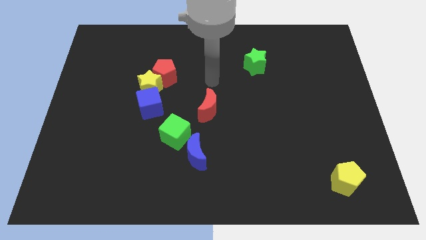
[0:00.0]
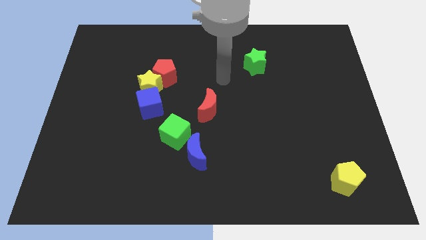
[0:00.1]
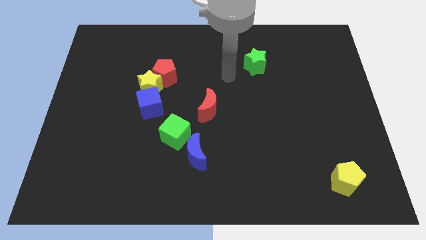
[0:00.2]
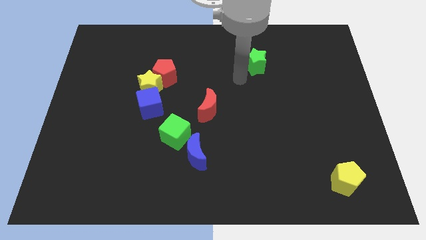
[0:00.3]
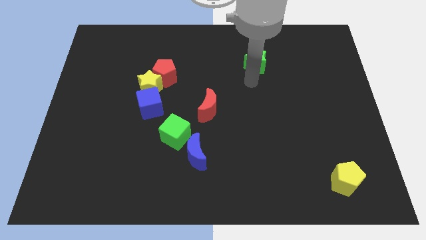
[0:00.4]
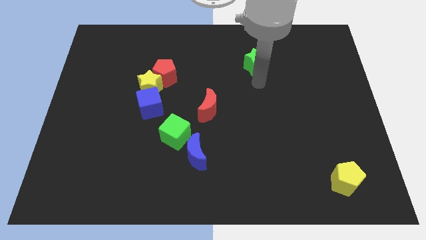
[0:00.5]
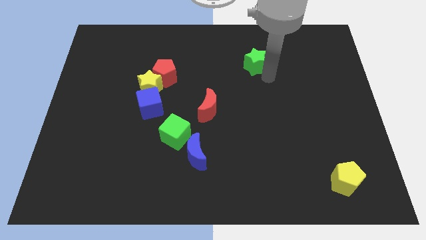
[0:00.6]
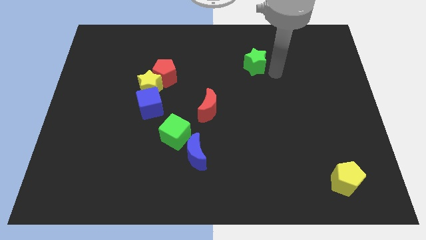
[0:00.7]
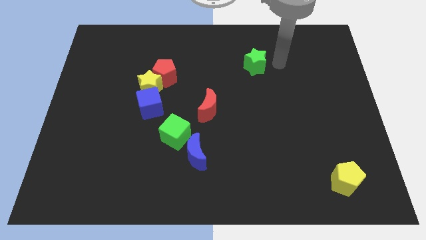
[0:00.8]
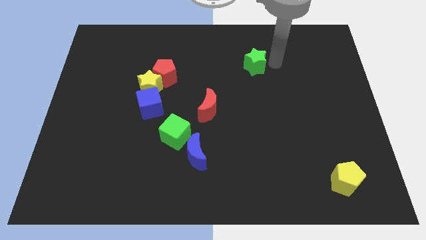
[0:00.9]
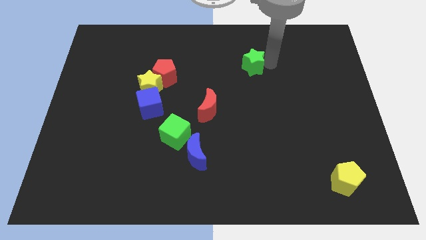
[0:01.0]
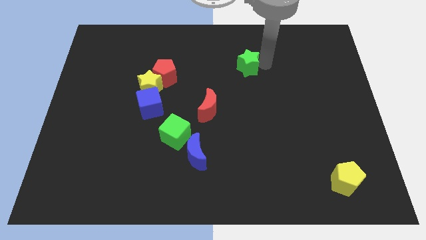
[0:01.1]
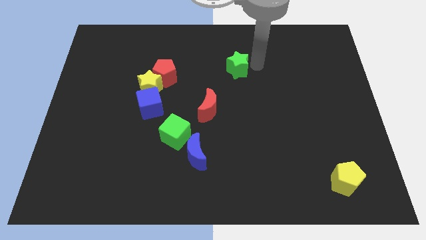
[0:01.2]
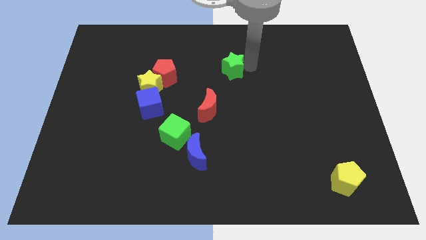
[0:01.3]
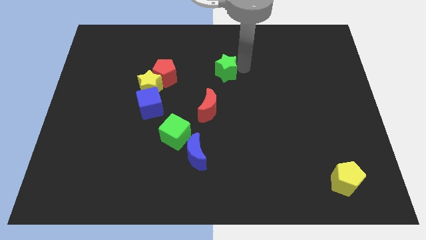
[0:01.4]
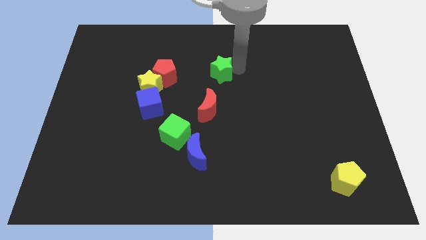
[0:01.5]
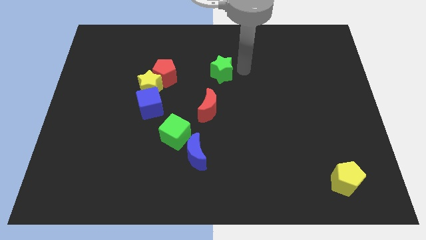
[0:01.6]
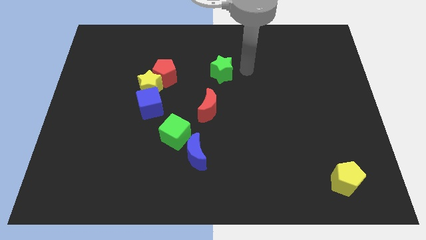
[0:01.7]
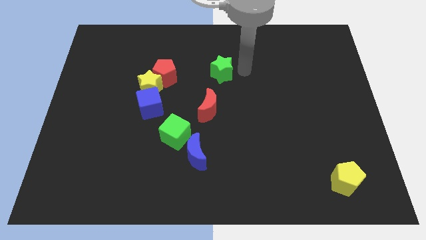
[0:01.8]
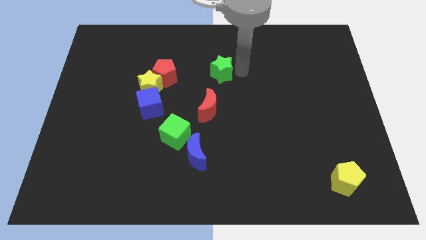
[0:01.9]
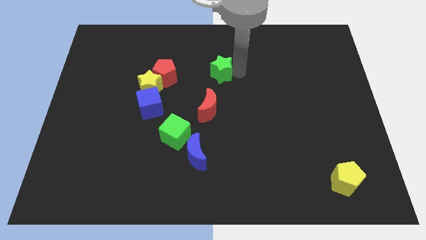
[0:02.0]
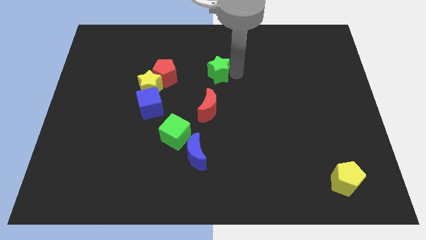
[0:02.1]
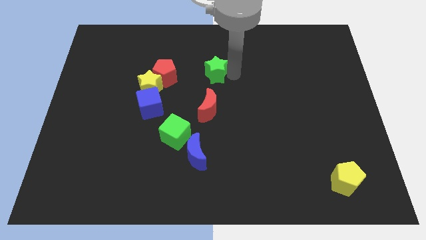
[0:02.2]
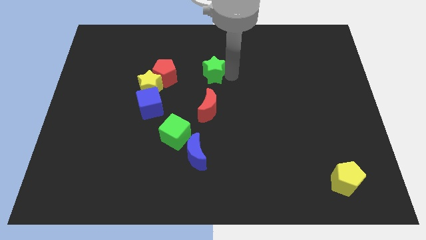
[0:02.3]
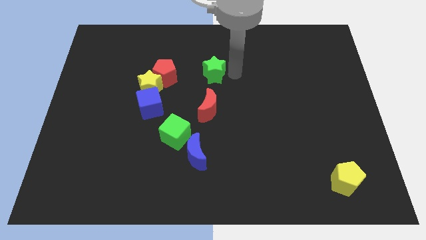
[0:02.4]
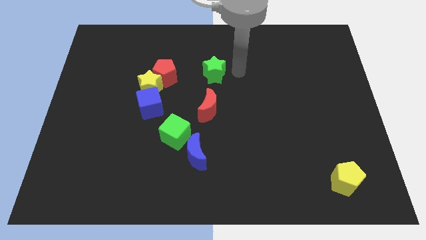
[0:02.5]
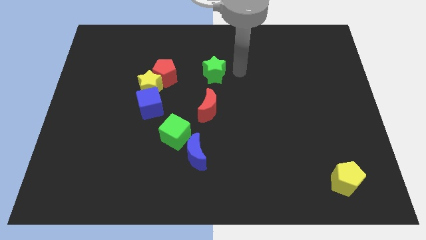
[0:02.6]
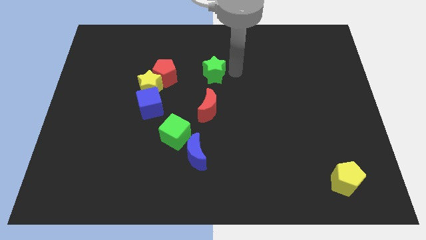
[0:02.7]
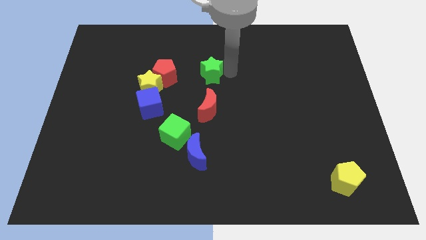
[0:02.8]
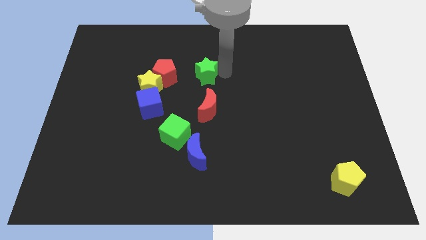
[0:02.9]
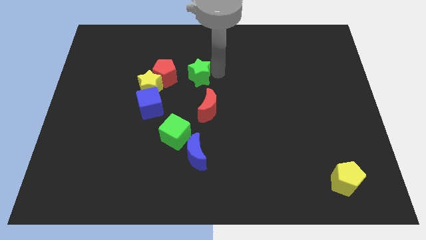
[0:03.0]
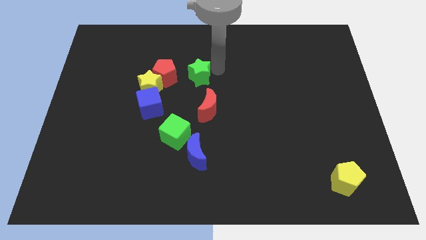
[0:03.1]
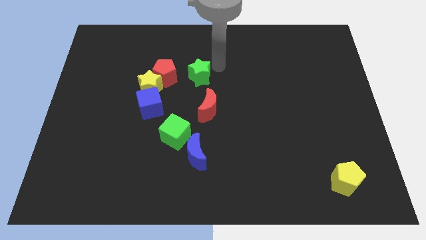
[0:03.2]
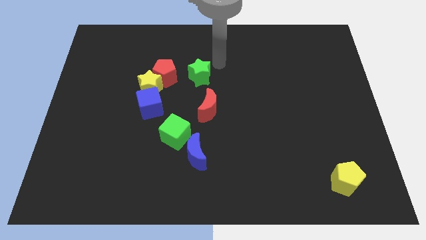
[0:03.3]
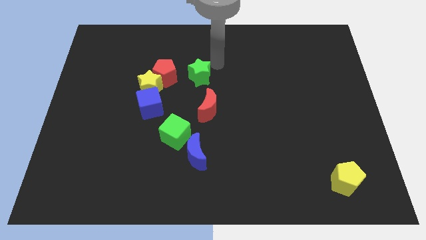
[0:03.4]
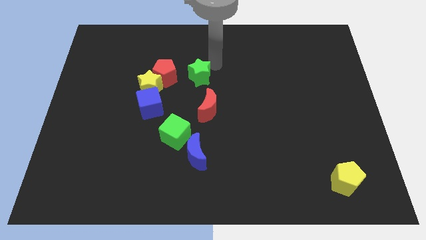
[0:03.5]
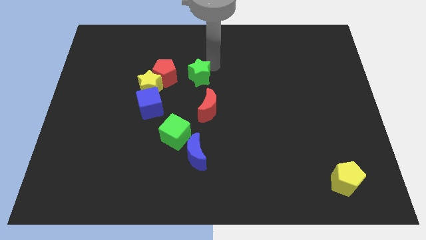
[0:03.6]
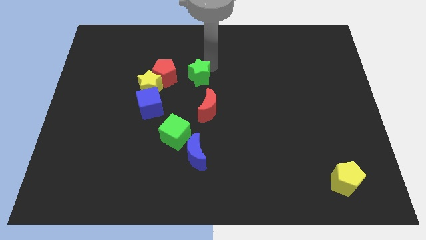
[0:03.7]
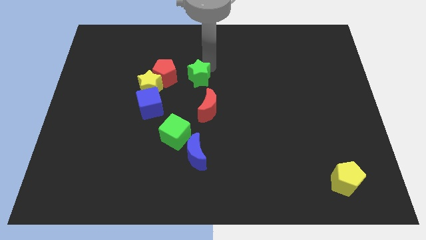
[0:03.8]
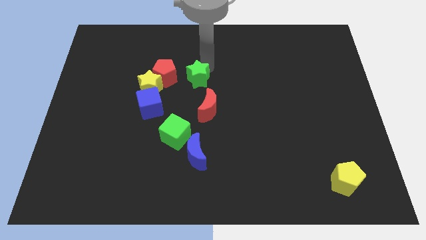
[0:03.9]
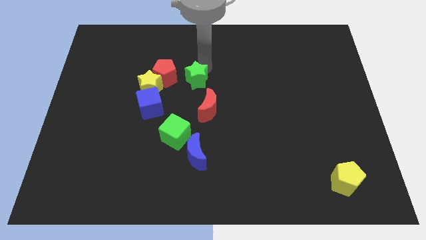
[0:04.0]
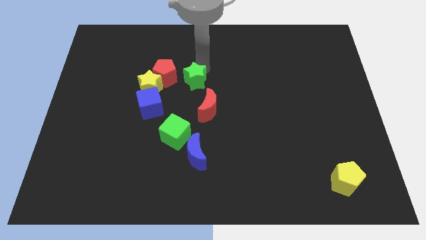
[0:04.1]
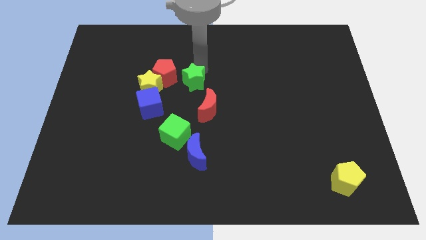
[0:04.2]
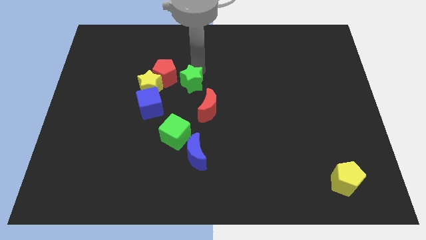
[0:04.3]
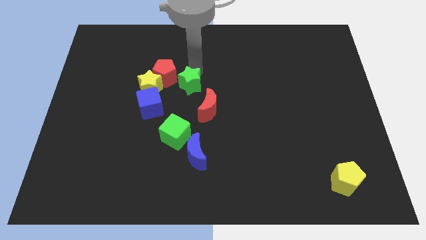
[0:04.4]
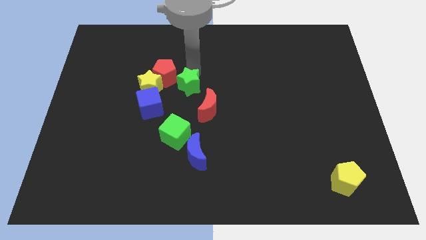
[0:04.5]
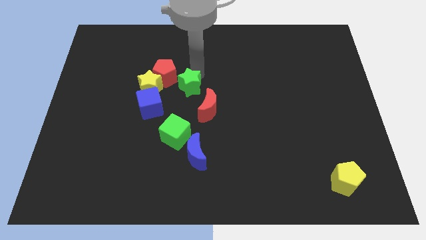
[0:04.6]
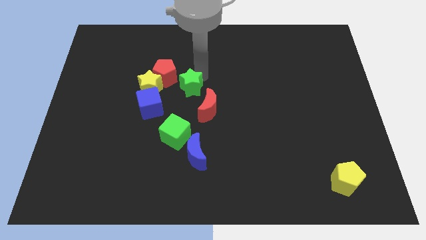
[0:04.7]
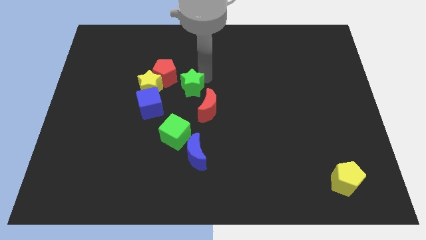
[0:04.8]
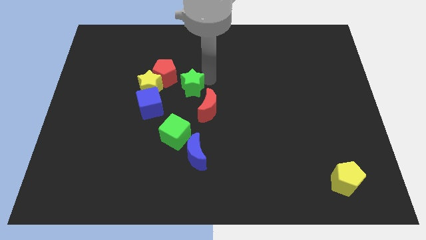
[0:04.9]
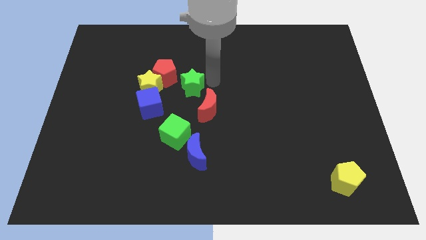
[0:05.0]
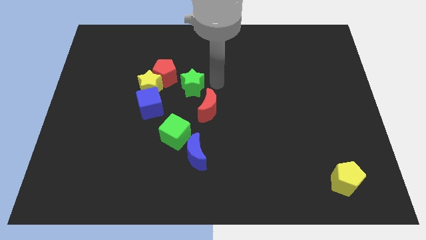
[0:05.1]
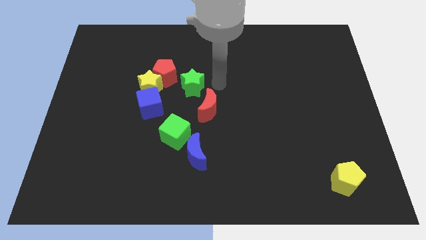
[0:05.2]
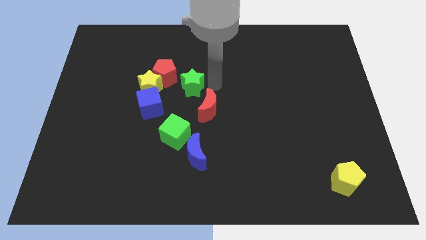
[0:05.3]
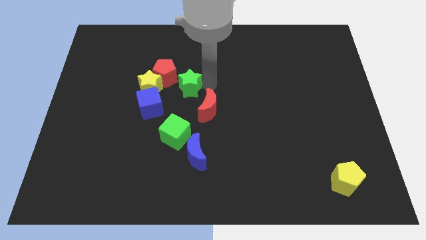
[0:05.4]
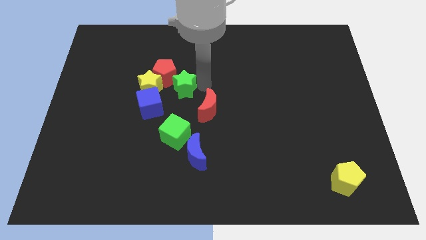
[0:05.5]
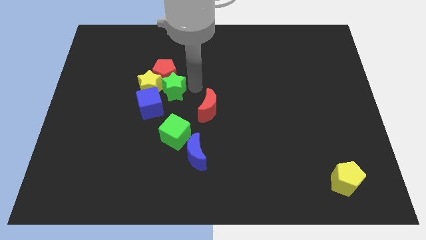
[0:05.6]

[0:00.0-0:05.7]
move the green star towards the yellow star
